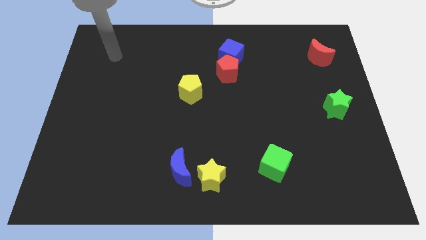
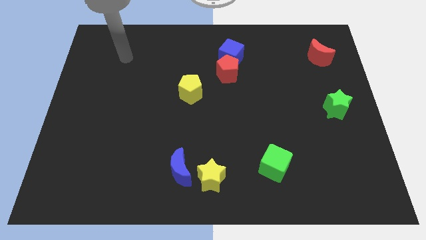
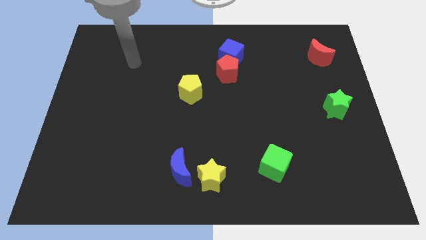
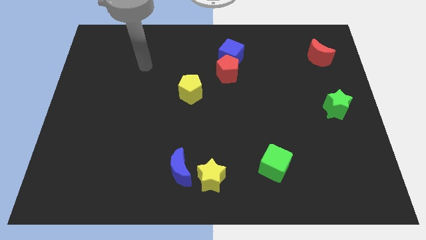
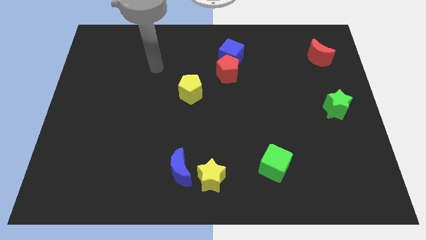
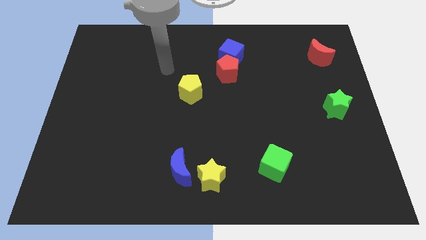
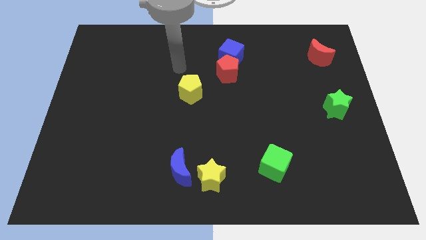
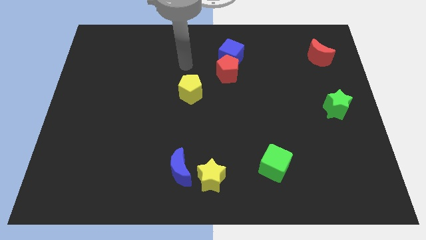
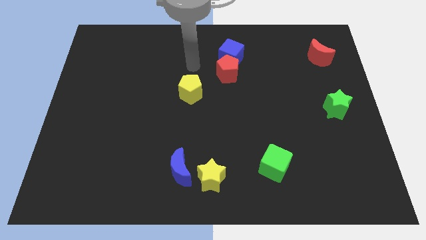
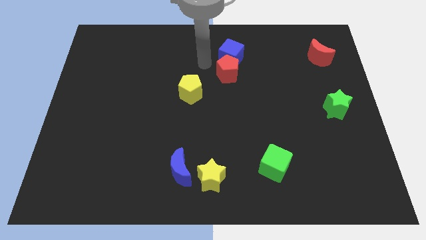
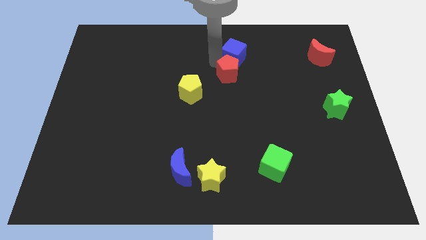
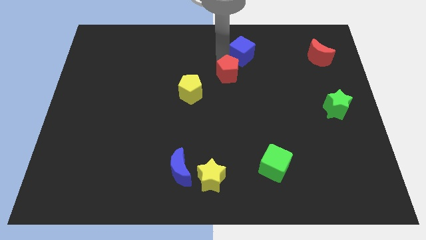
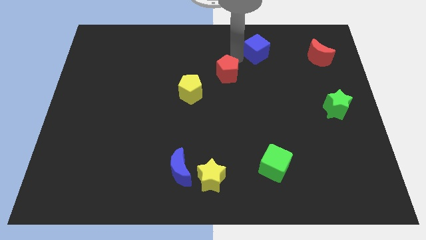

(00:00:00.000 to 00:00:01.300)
separate the red pentagon from the blue cube

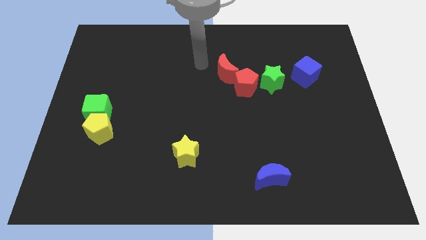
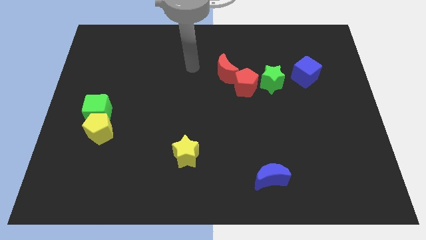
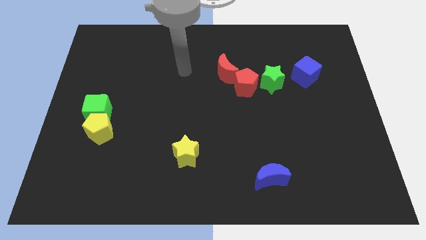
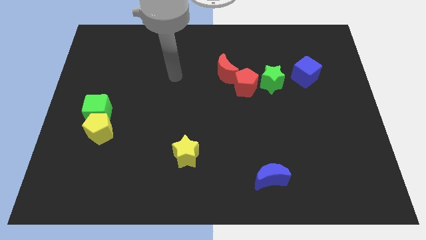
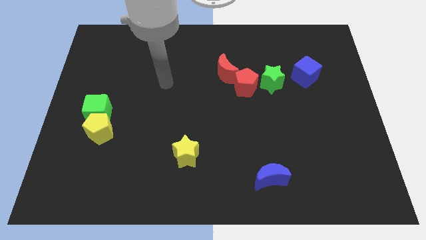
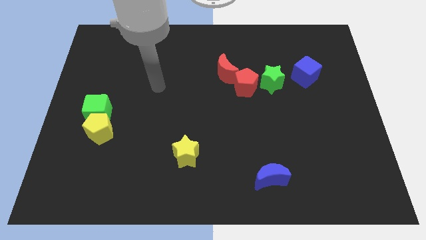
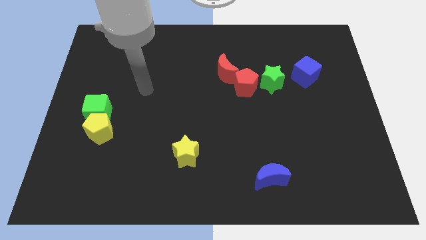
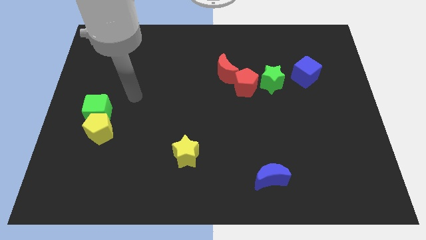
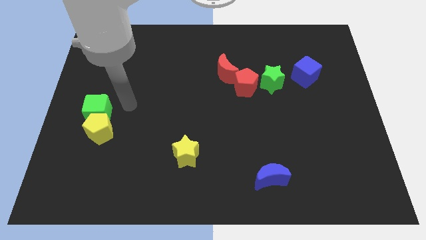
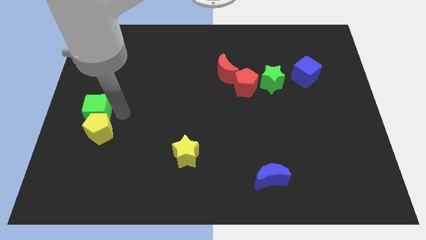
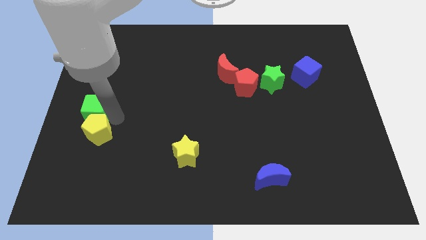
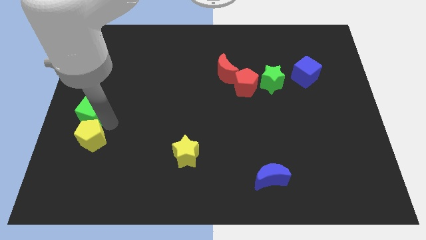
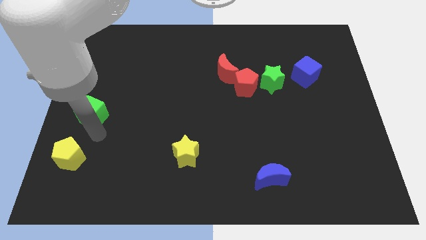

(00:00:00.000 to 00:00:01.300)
separate the green cube from the yellow pentagon

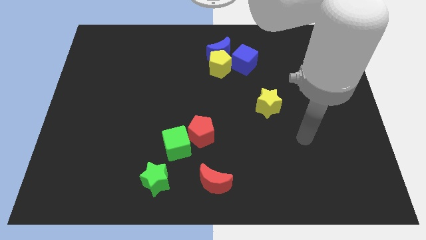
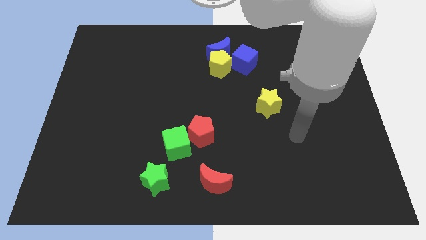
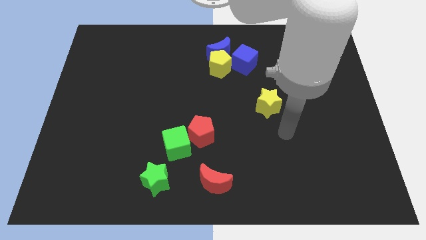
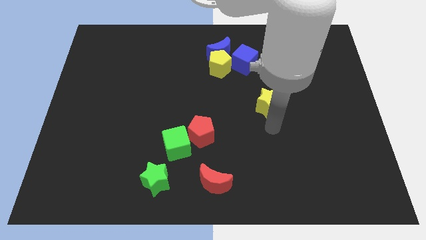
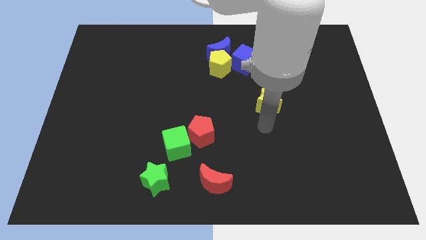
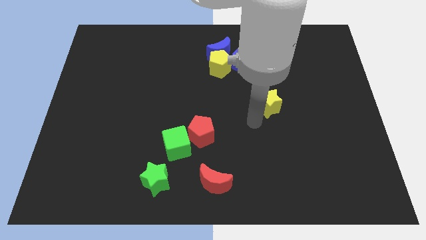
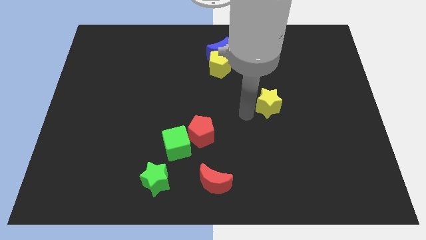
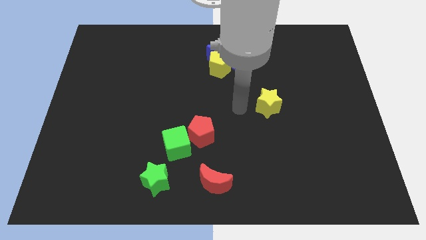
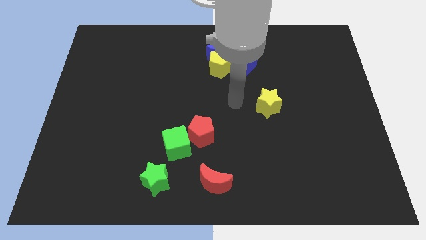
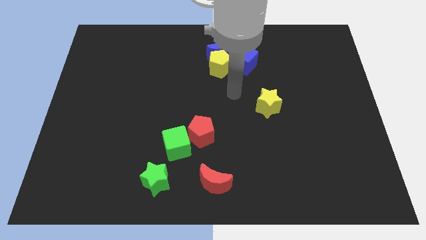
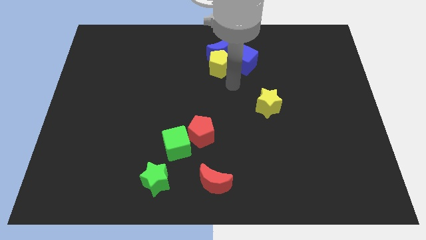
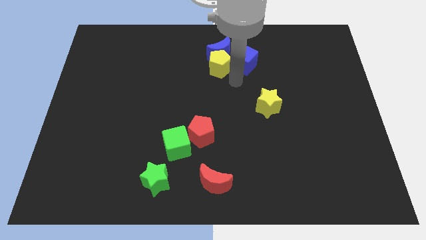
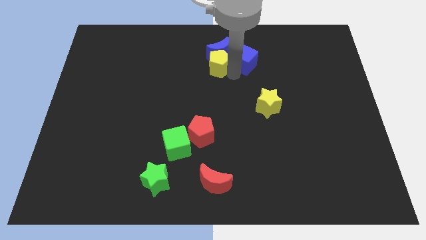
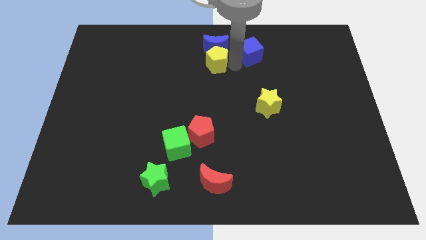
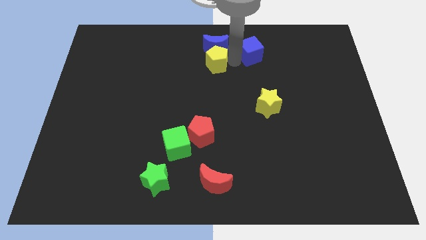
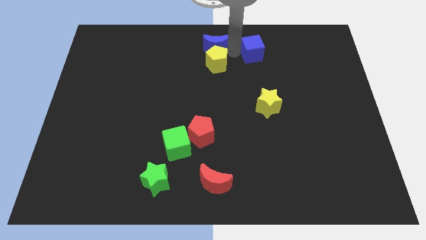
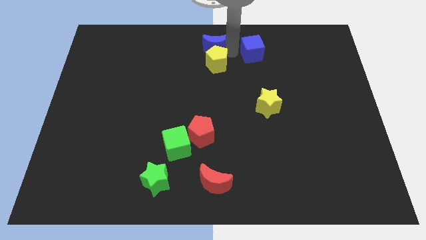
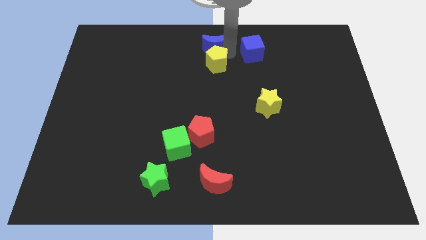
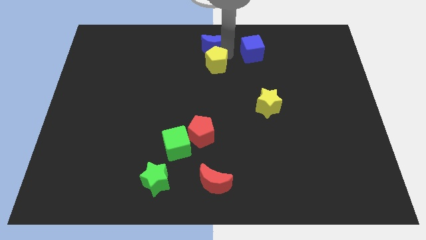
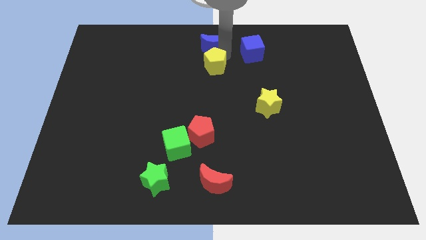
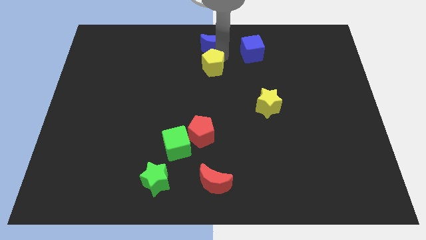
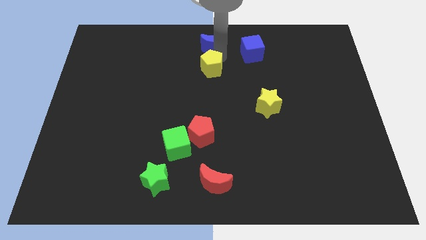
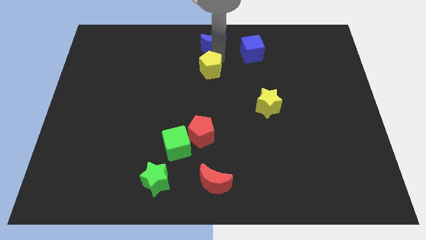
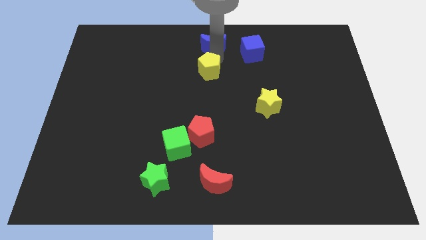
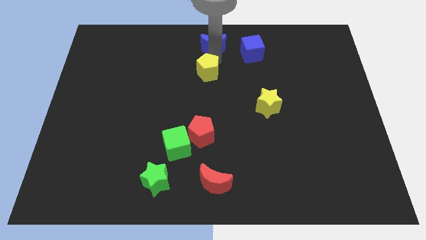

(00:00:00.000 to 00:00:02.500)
move the yellow pentagon away from the blue moon and blue cube

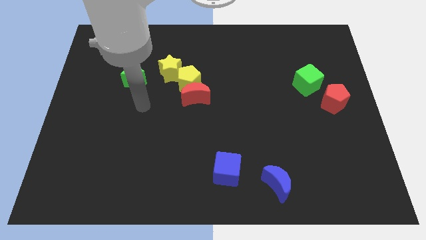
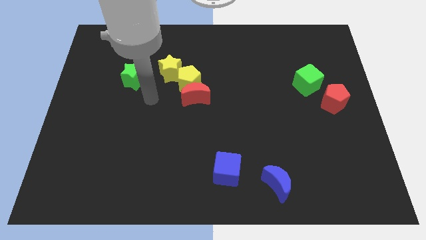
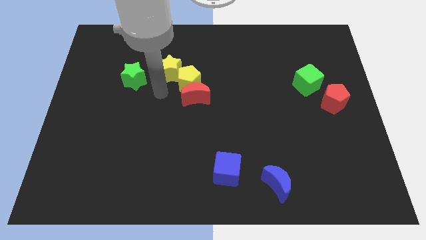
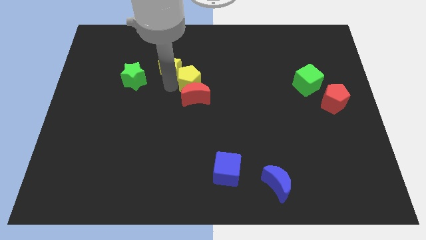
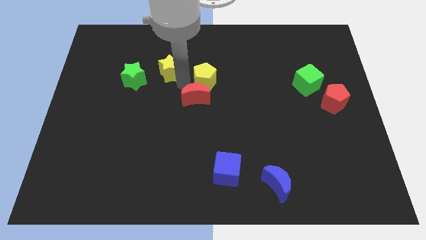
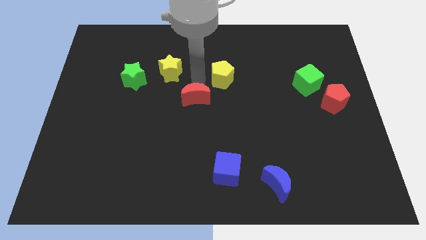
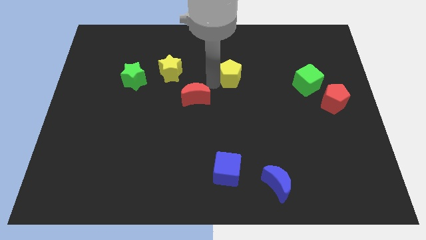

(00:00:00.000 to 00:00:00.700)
move the red moon away from the yellow pentagon

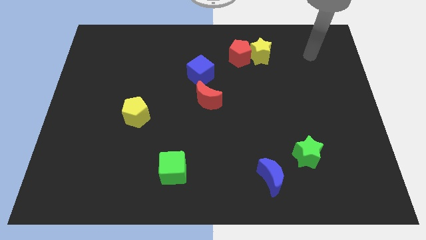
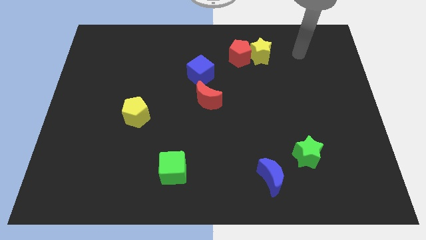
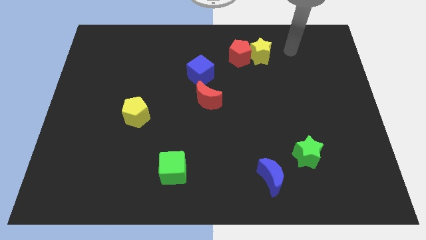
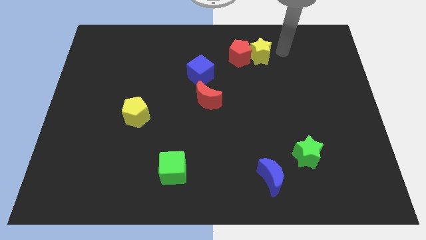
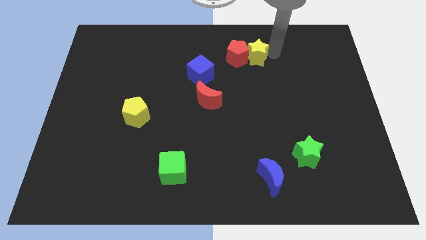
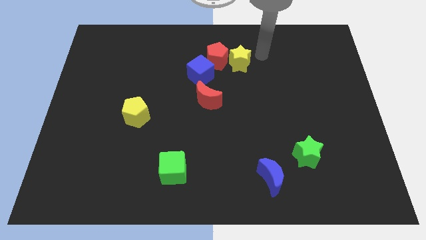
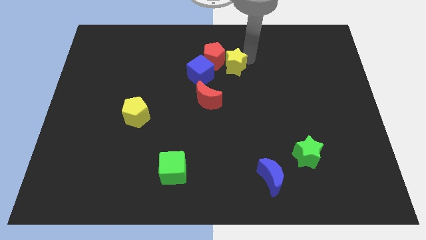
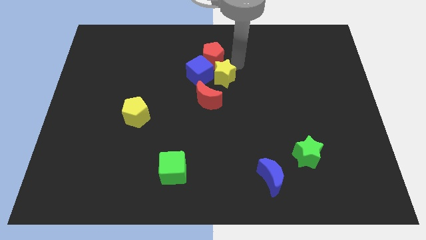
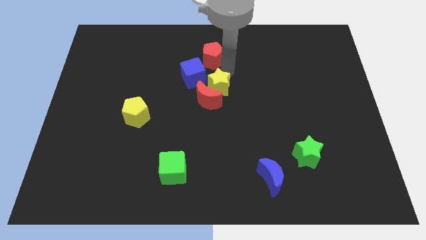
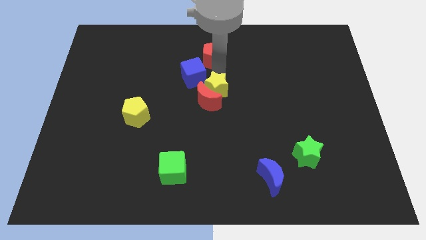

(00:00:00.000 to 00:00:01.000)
move the red pentagon away from the yellow star

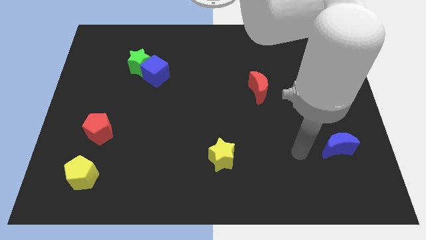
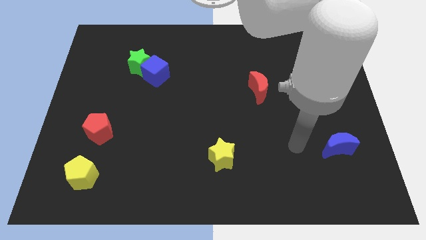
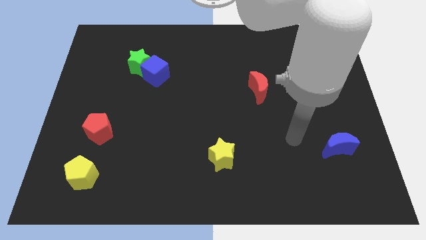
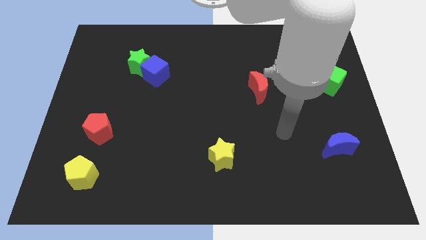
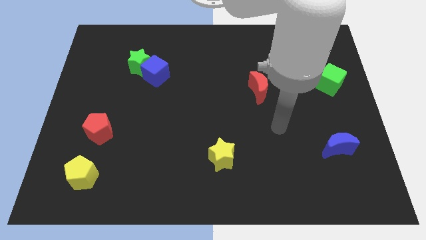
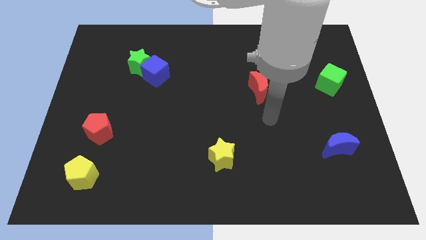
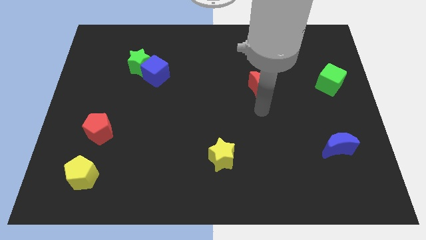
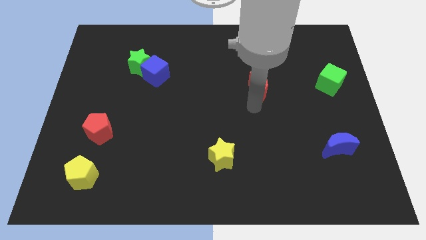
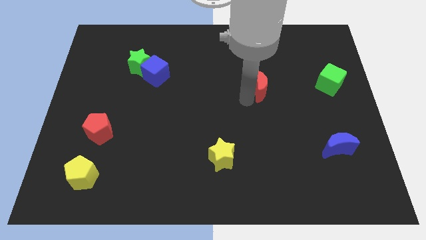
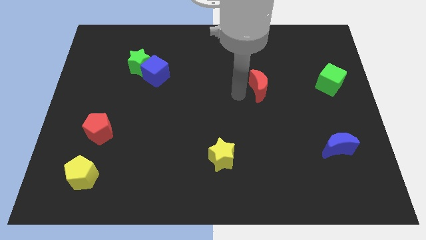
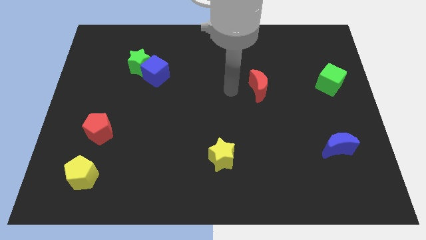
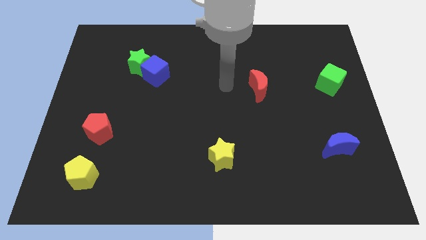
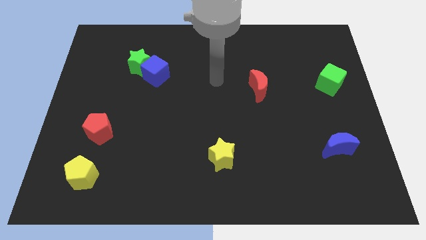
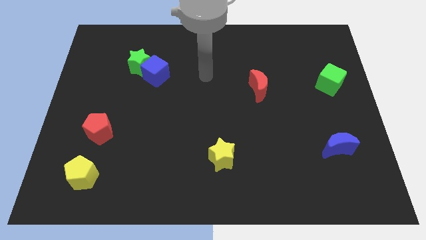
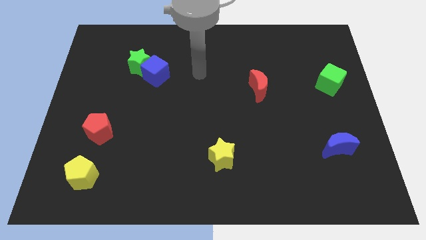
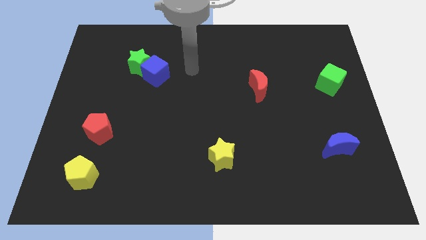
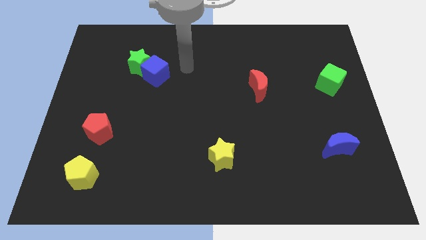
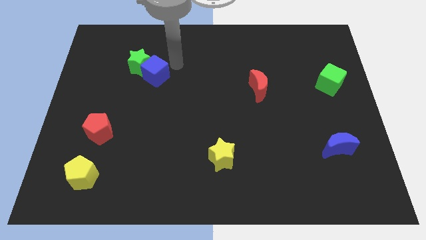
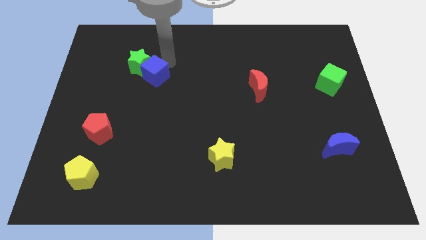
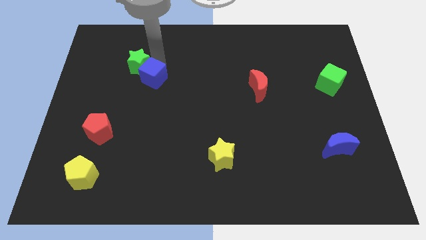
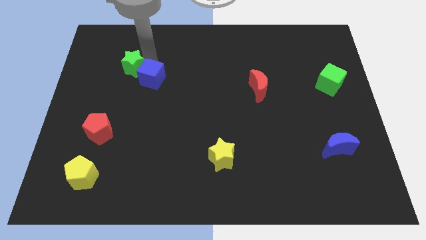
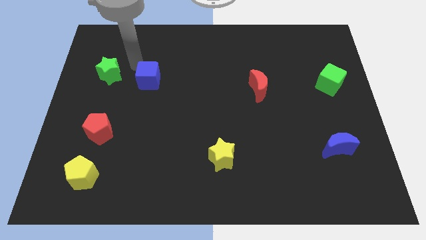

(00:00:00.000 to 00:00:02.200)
pull the blue cube apart from the green star

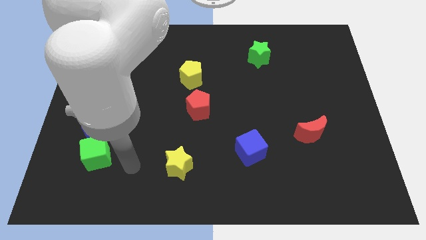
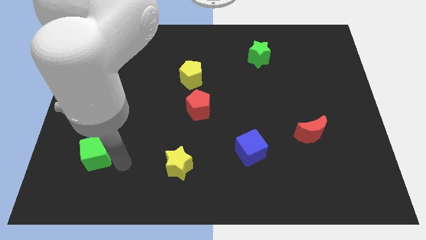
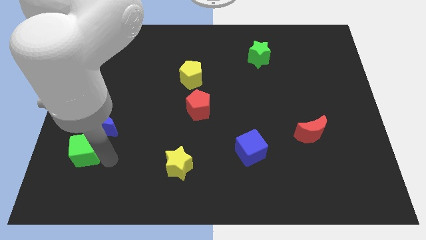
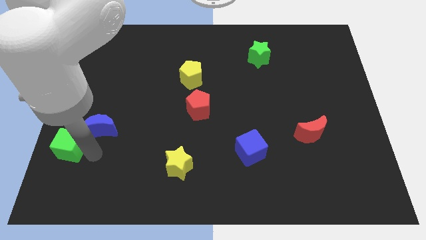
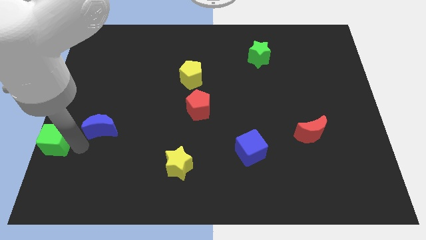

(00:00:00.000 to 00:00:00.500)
pull the blue moon apart from the green cube
